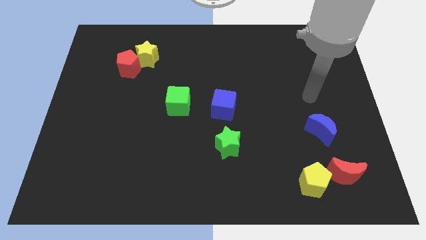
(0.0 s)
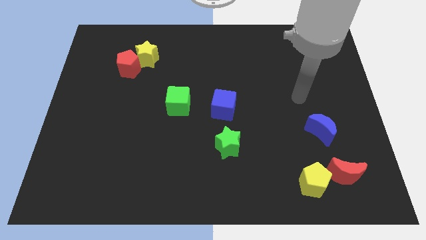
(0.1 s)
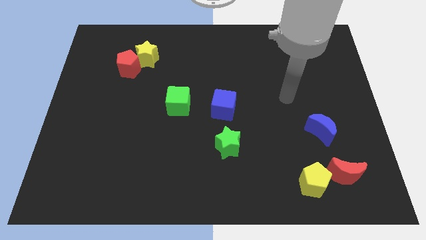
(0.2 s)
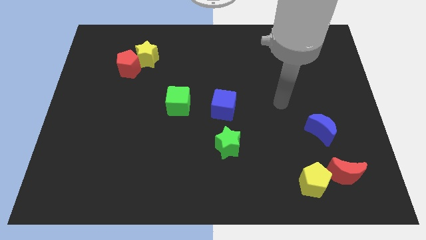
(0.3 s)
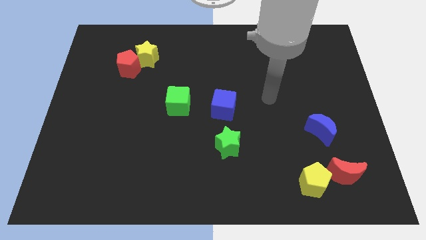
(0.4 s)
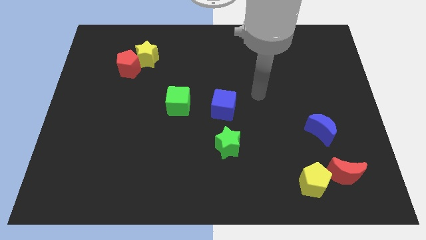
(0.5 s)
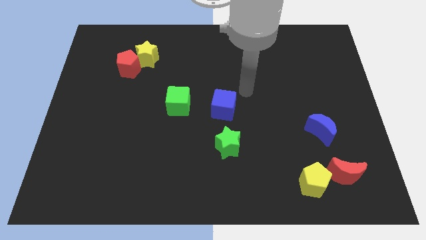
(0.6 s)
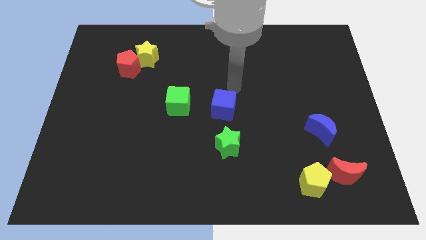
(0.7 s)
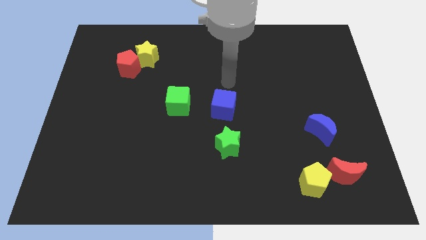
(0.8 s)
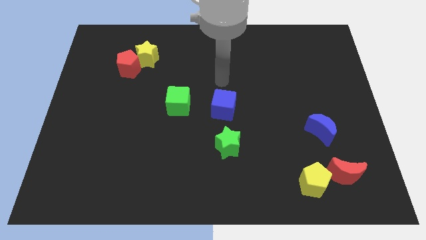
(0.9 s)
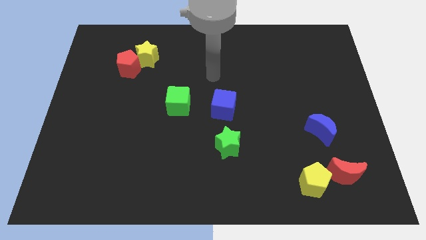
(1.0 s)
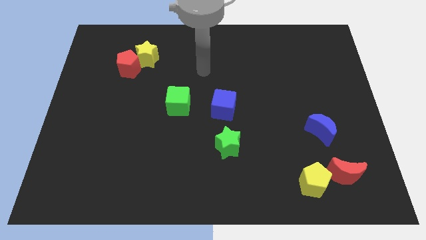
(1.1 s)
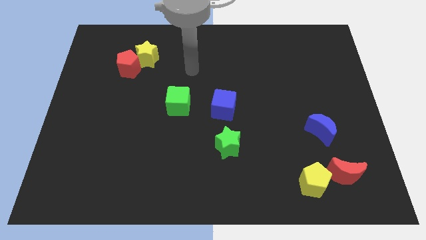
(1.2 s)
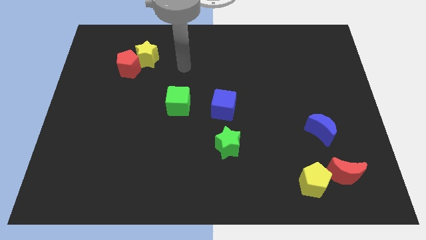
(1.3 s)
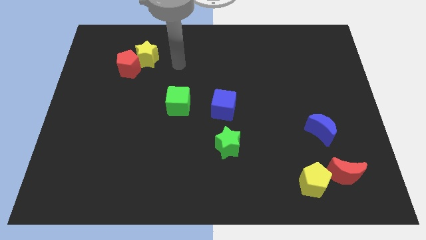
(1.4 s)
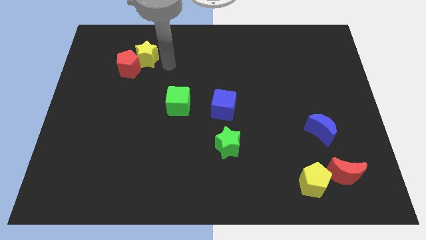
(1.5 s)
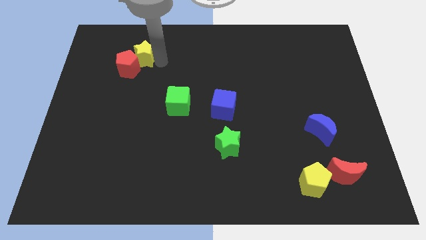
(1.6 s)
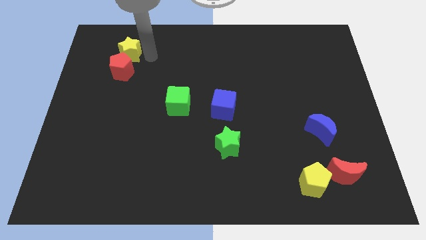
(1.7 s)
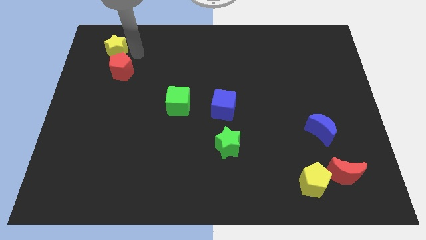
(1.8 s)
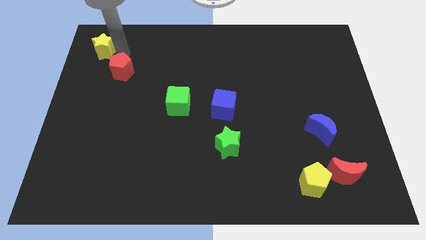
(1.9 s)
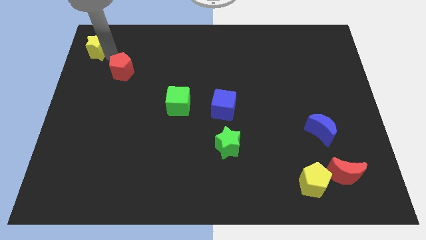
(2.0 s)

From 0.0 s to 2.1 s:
separate the red pentagon from the yellow star

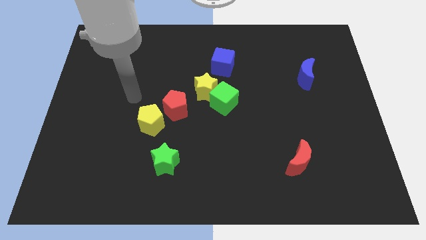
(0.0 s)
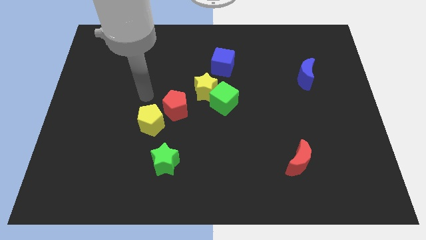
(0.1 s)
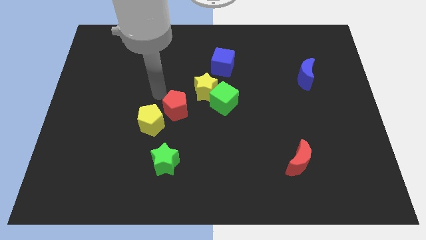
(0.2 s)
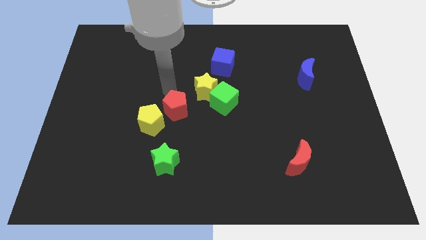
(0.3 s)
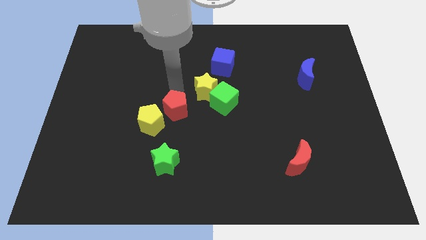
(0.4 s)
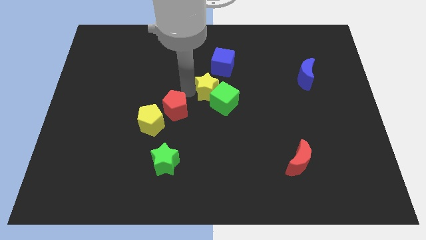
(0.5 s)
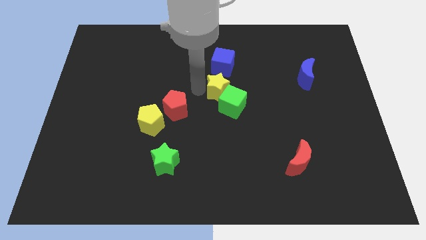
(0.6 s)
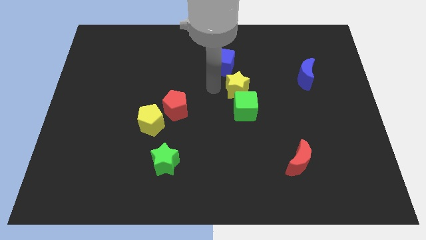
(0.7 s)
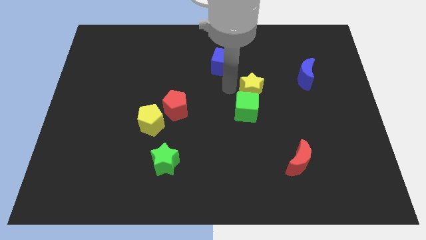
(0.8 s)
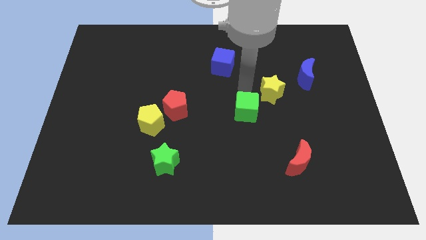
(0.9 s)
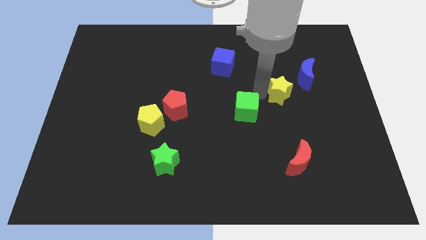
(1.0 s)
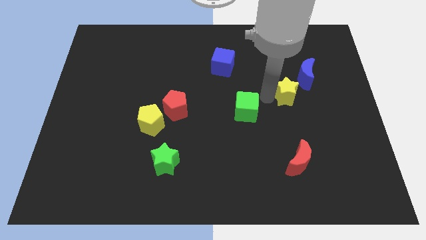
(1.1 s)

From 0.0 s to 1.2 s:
separate the green cube from the yellow star

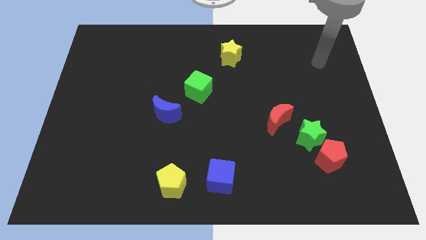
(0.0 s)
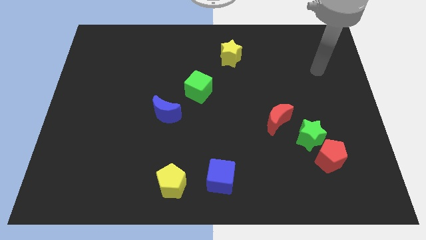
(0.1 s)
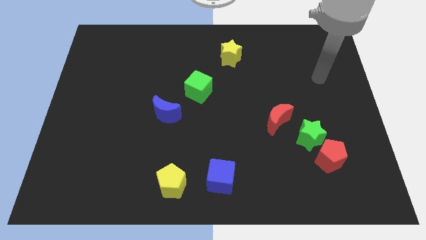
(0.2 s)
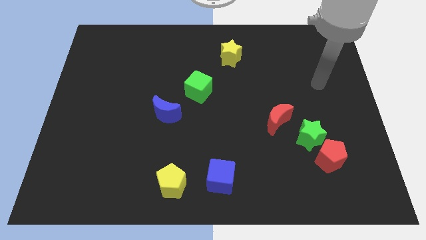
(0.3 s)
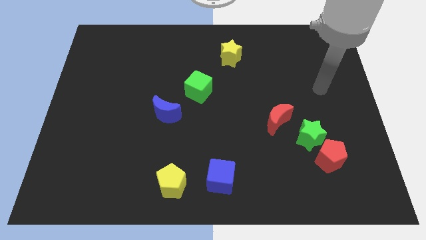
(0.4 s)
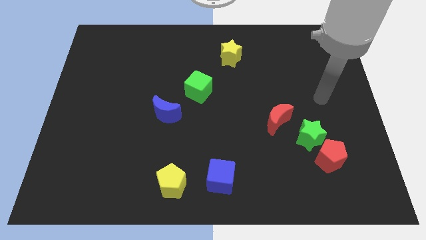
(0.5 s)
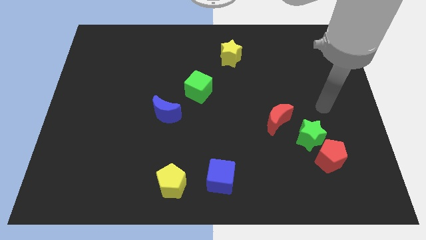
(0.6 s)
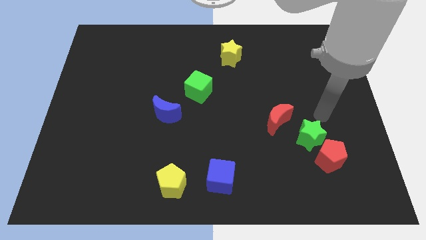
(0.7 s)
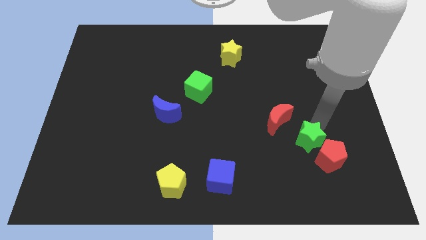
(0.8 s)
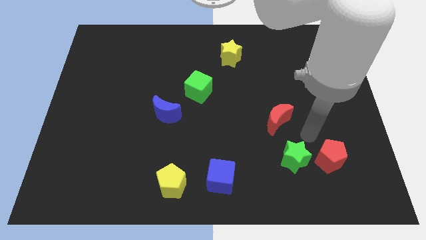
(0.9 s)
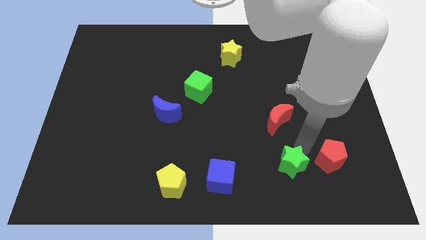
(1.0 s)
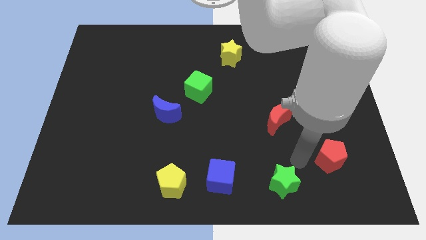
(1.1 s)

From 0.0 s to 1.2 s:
pull the red pentagon apart from the green star

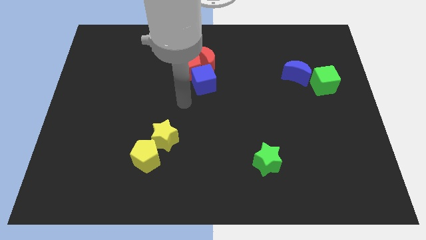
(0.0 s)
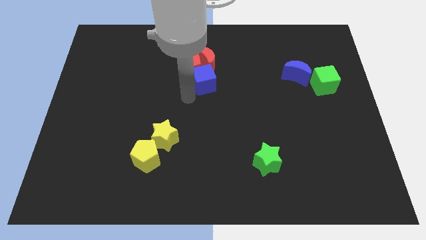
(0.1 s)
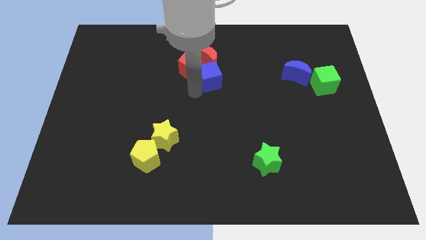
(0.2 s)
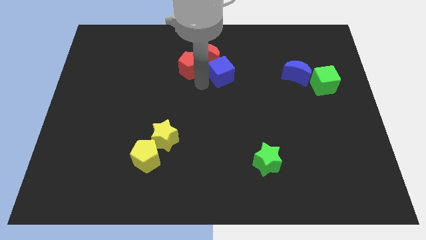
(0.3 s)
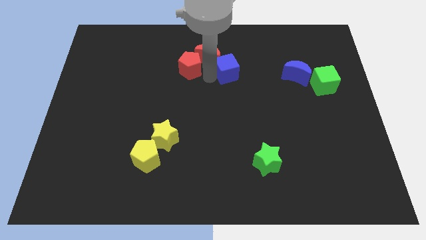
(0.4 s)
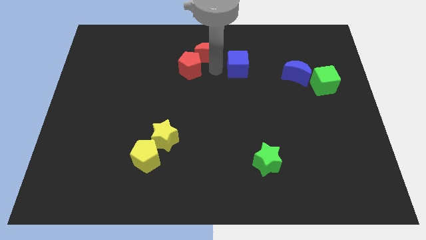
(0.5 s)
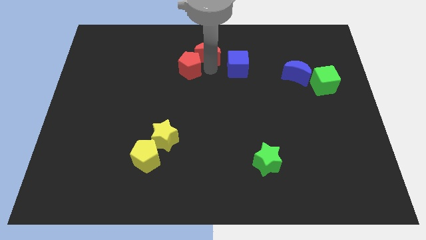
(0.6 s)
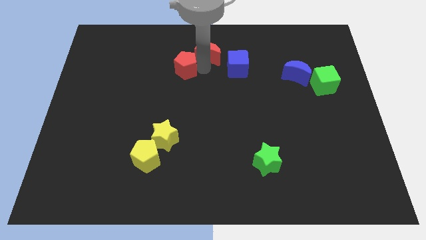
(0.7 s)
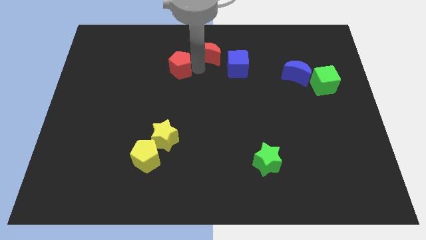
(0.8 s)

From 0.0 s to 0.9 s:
move the red pentagon away from the red moon and blue cube

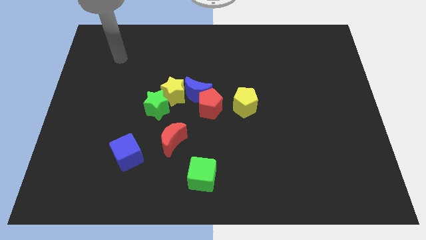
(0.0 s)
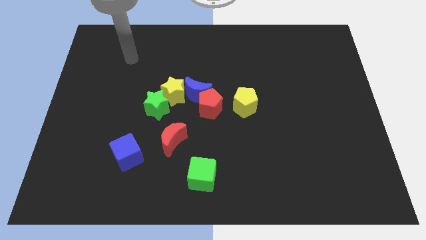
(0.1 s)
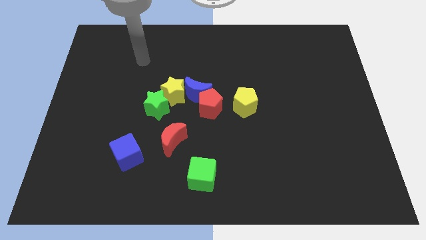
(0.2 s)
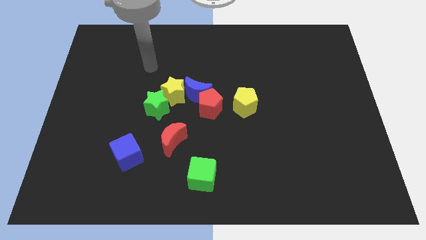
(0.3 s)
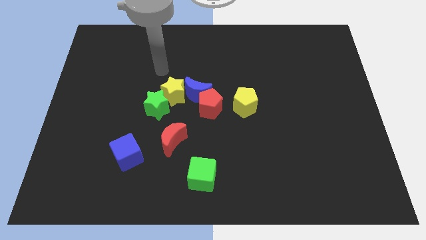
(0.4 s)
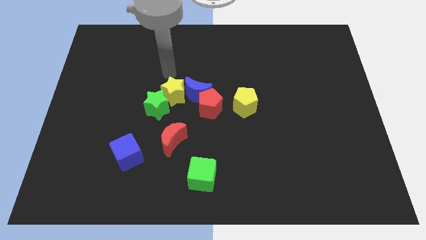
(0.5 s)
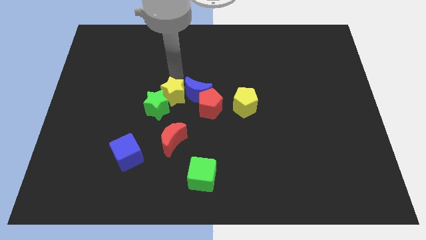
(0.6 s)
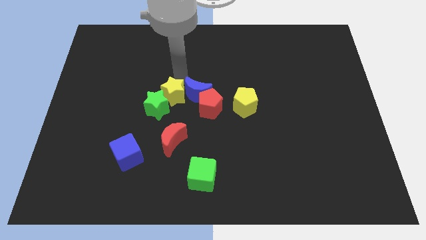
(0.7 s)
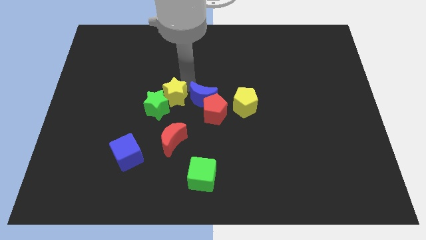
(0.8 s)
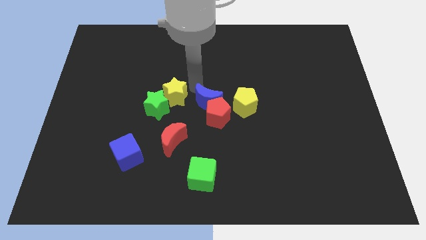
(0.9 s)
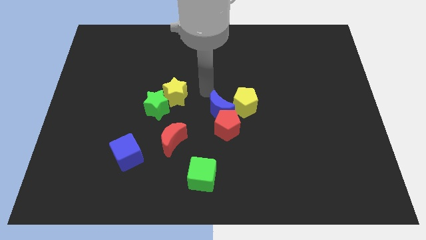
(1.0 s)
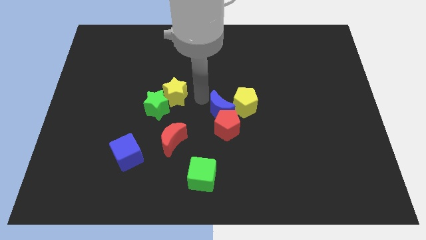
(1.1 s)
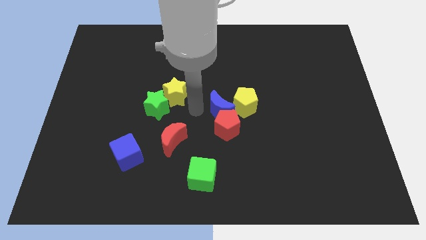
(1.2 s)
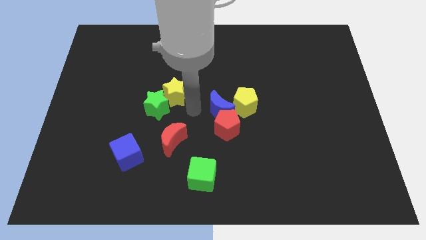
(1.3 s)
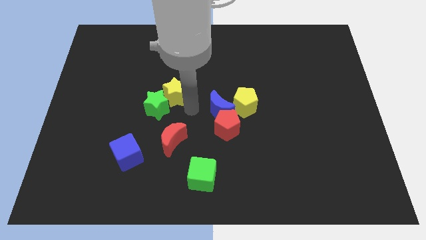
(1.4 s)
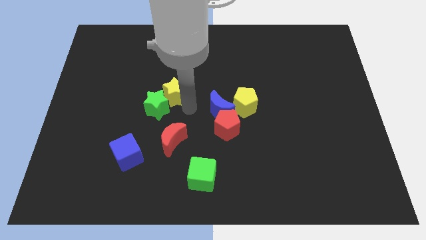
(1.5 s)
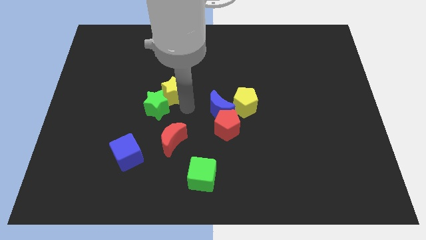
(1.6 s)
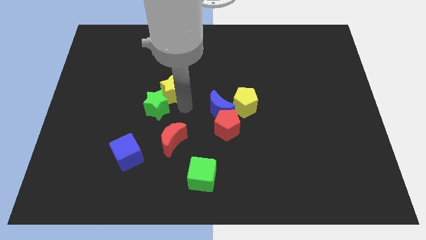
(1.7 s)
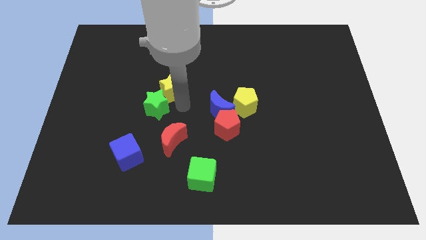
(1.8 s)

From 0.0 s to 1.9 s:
move the yellow star away from the clump

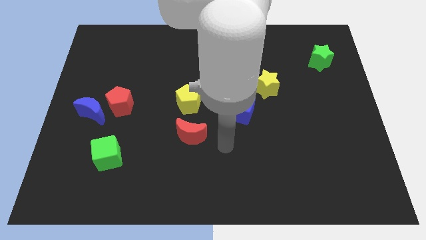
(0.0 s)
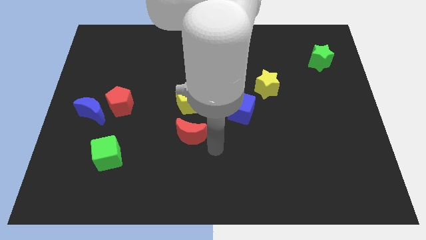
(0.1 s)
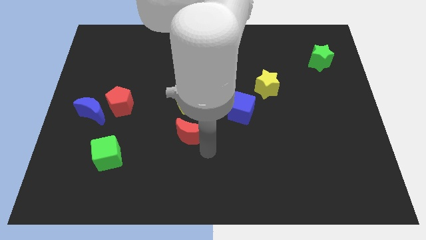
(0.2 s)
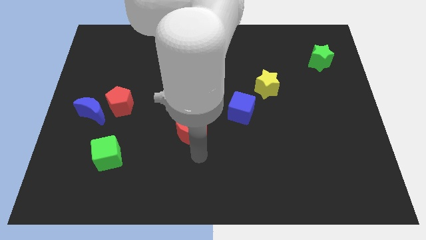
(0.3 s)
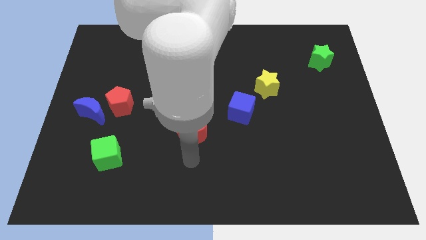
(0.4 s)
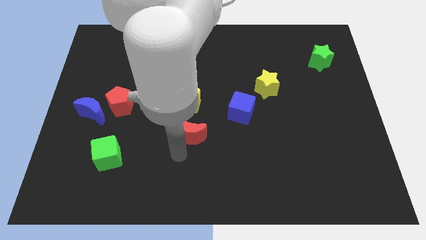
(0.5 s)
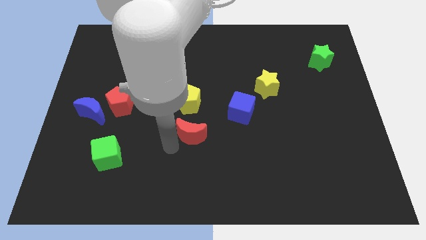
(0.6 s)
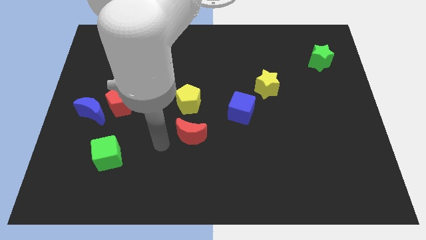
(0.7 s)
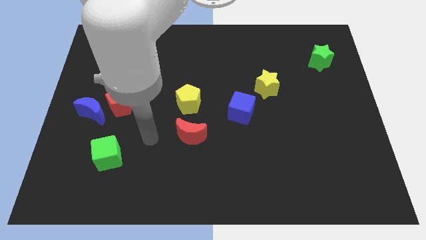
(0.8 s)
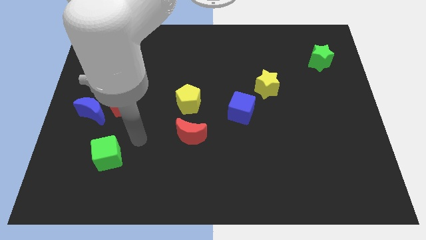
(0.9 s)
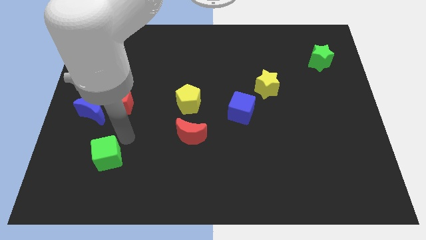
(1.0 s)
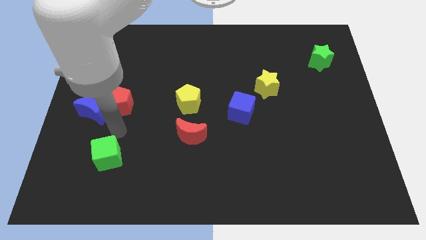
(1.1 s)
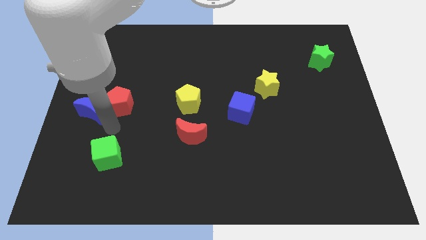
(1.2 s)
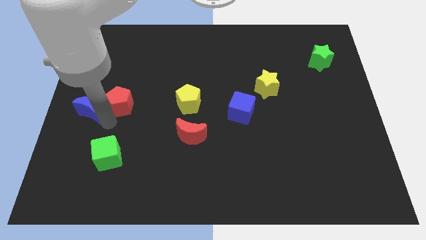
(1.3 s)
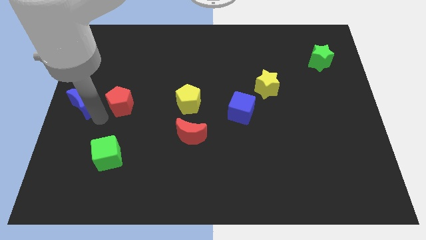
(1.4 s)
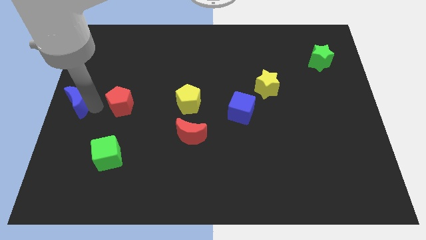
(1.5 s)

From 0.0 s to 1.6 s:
pull the red pentagon apart from the blue moon

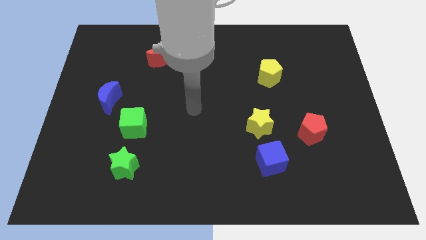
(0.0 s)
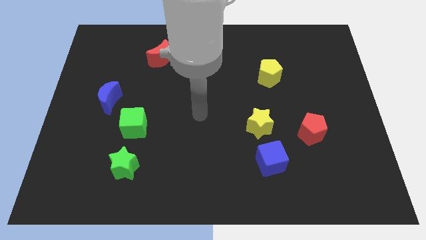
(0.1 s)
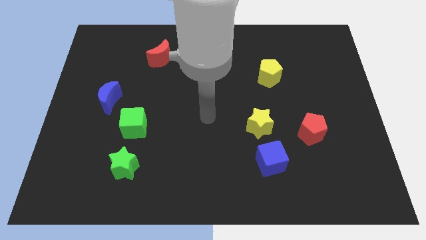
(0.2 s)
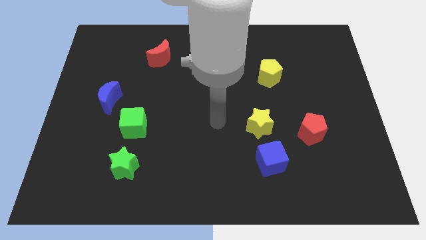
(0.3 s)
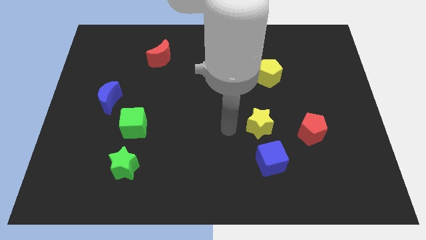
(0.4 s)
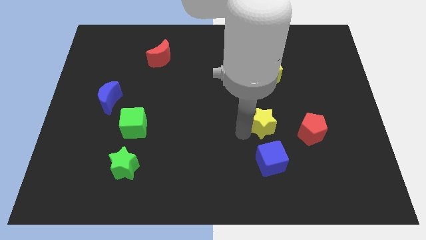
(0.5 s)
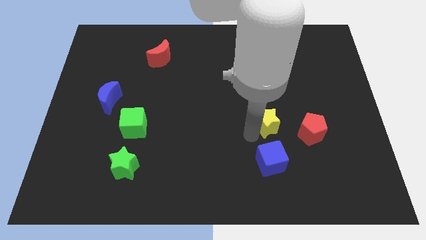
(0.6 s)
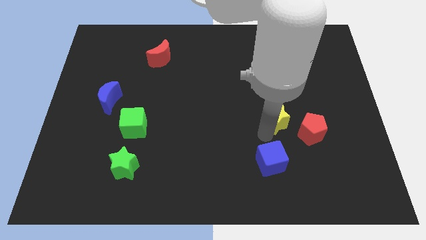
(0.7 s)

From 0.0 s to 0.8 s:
separate the blue cube from the yellow star
